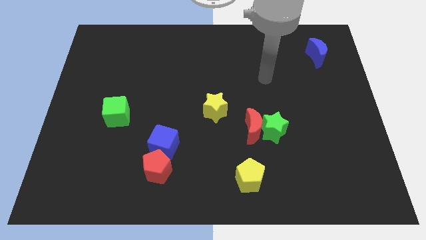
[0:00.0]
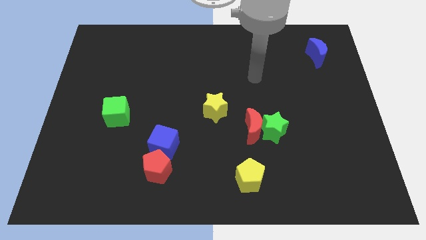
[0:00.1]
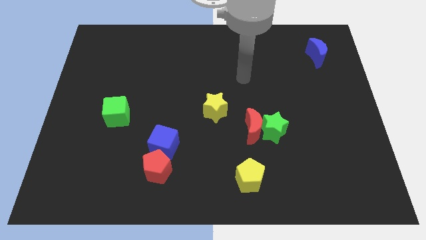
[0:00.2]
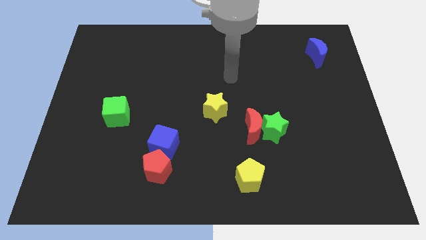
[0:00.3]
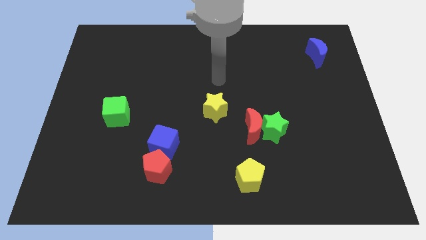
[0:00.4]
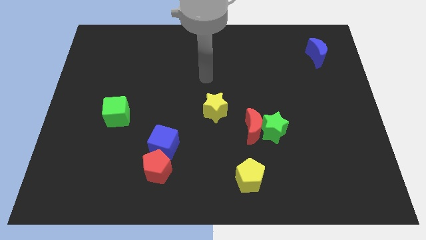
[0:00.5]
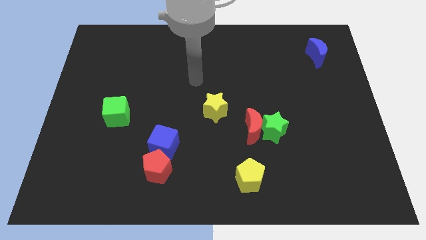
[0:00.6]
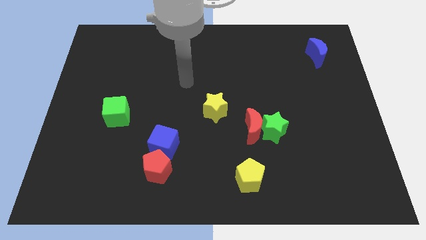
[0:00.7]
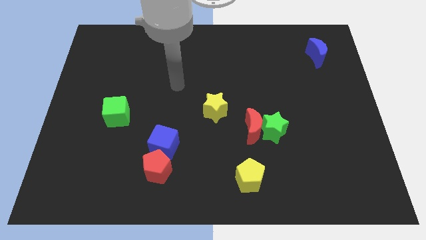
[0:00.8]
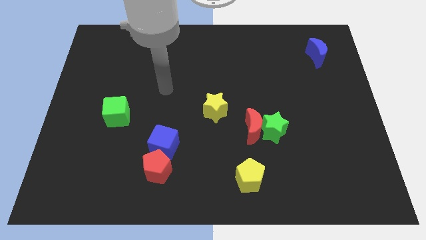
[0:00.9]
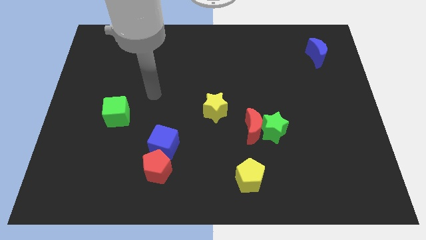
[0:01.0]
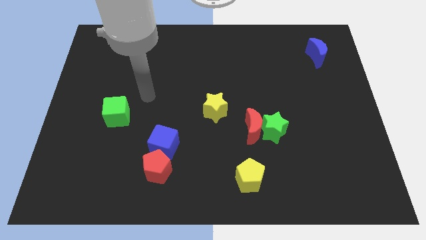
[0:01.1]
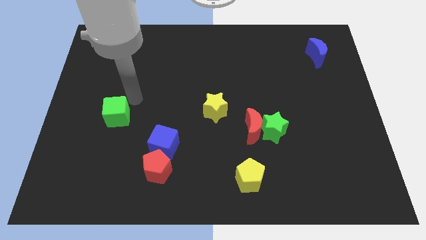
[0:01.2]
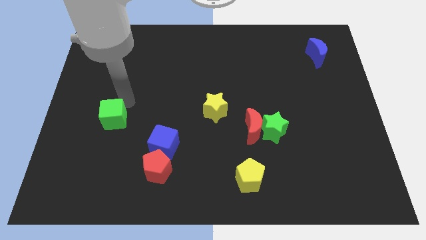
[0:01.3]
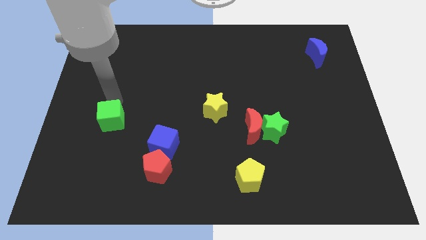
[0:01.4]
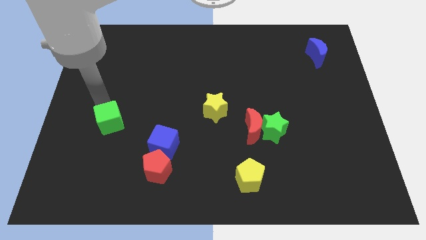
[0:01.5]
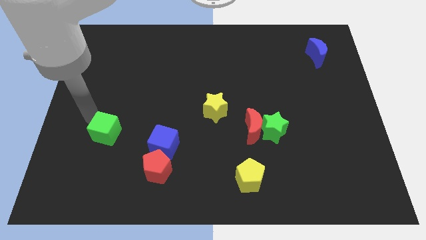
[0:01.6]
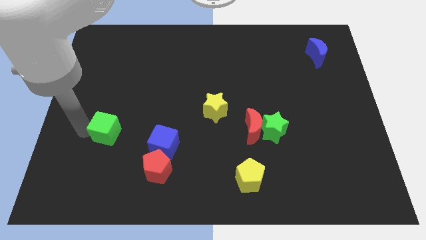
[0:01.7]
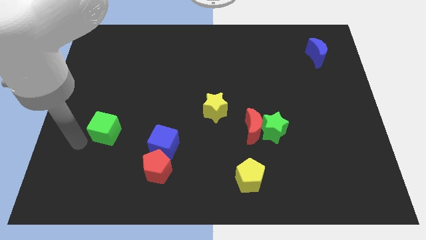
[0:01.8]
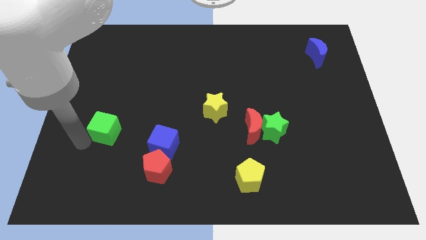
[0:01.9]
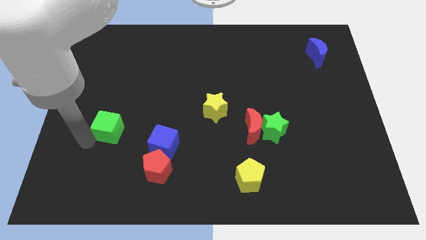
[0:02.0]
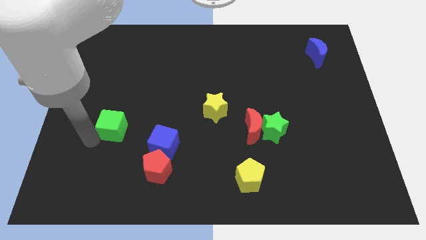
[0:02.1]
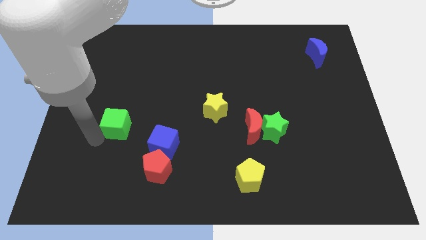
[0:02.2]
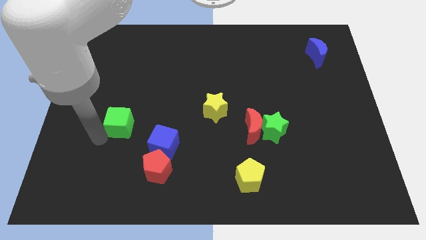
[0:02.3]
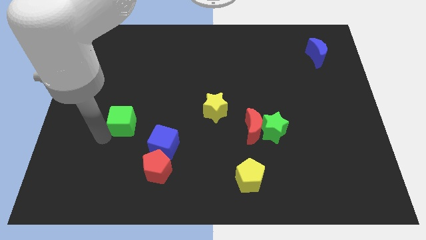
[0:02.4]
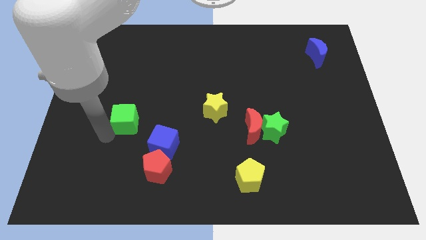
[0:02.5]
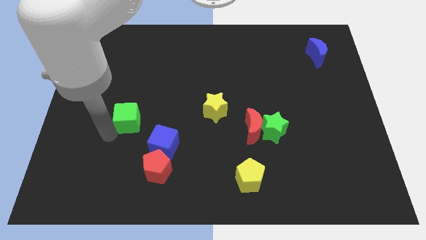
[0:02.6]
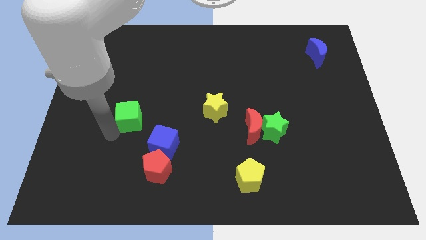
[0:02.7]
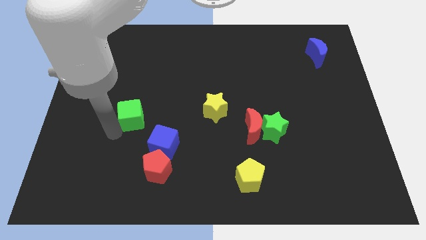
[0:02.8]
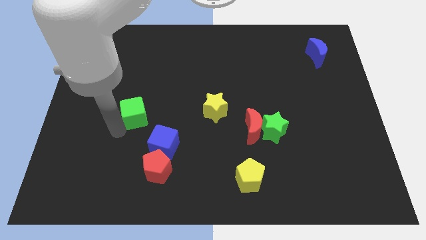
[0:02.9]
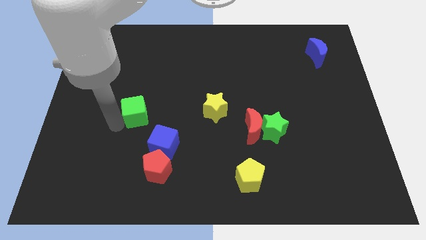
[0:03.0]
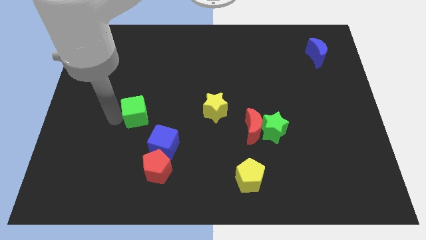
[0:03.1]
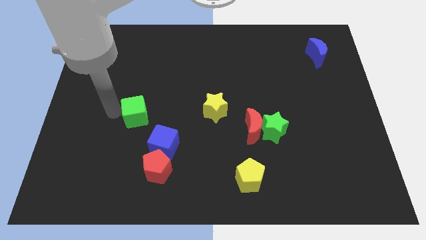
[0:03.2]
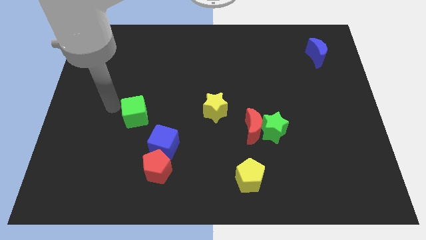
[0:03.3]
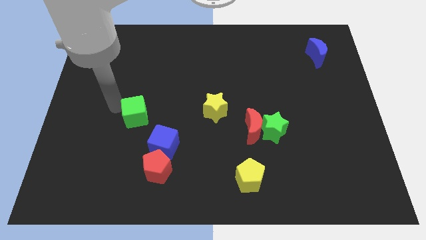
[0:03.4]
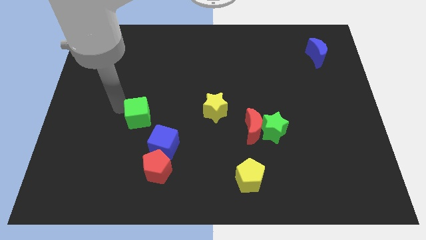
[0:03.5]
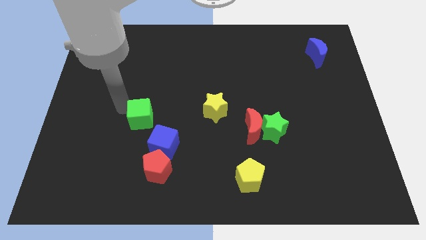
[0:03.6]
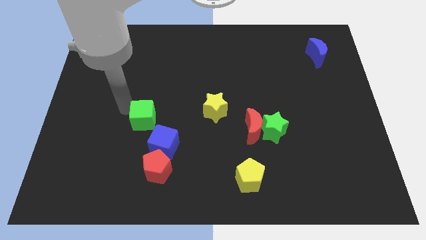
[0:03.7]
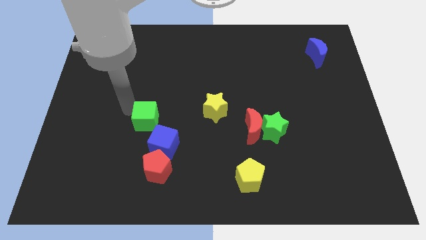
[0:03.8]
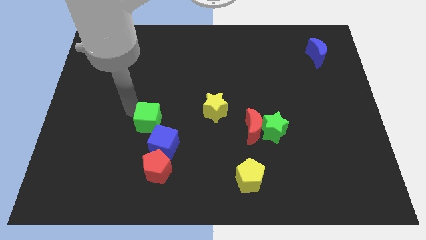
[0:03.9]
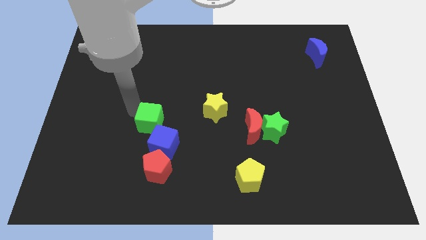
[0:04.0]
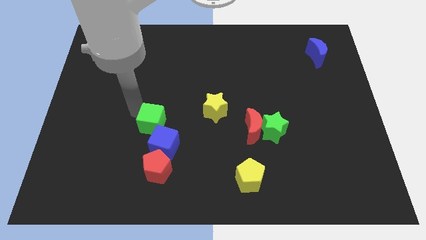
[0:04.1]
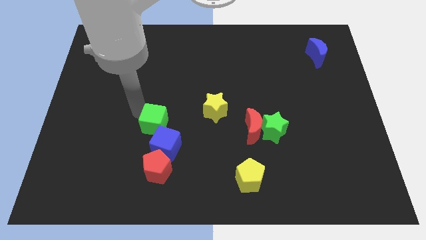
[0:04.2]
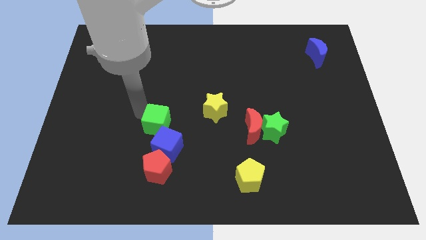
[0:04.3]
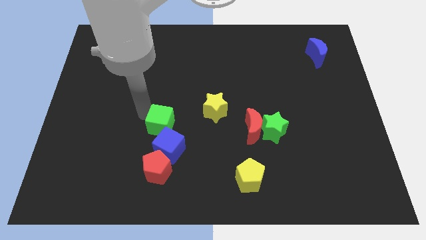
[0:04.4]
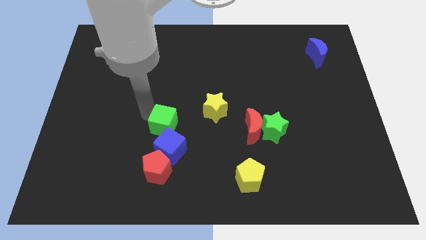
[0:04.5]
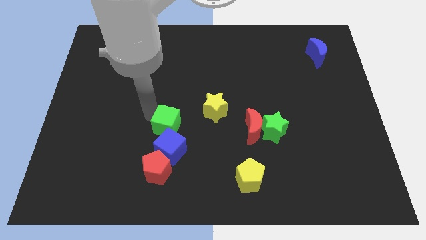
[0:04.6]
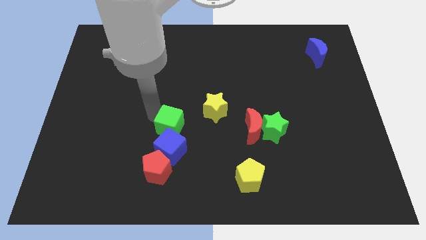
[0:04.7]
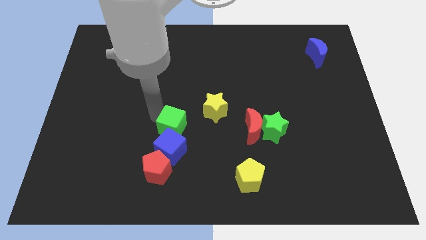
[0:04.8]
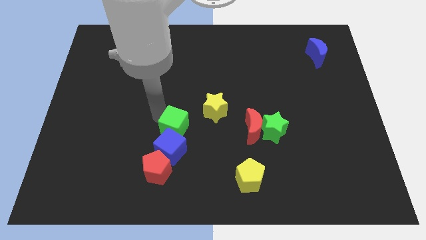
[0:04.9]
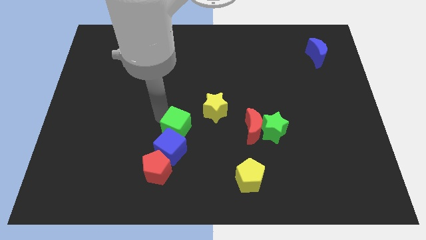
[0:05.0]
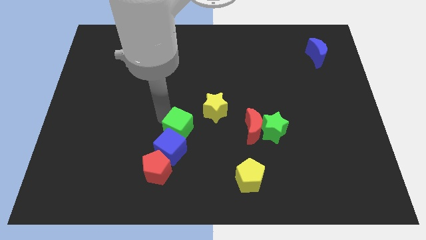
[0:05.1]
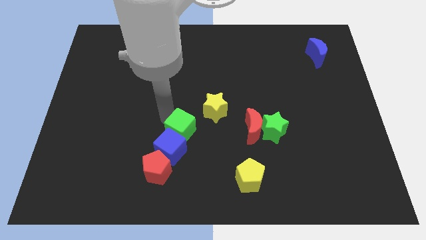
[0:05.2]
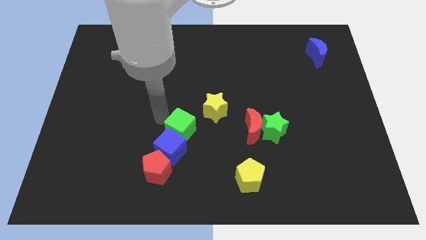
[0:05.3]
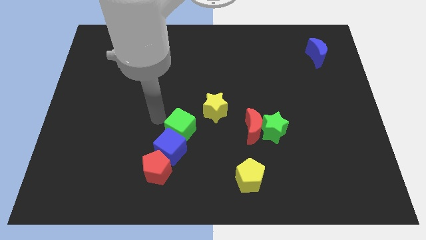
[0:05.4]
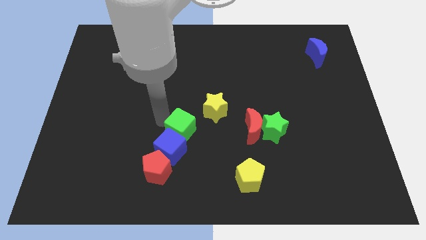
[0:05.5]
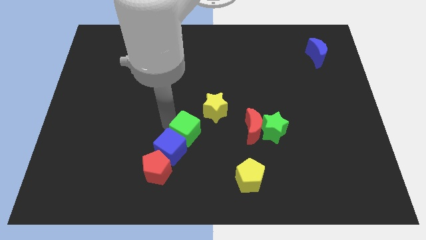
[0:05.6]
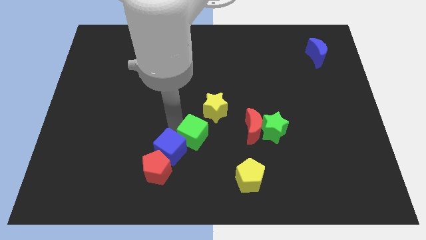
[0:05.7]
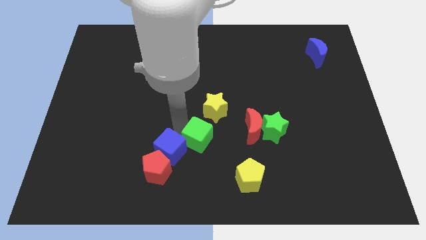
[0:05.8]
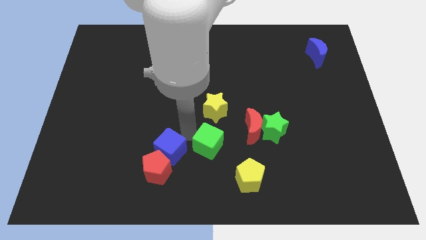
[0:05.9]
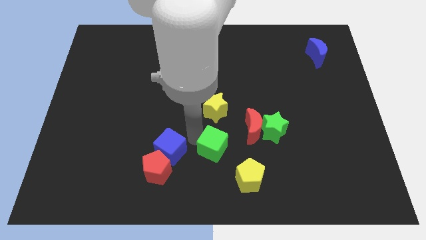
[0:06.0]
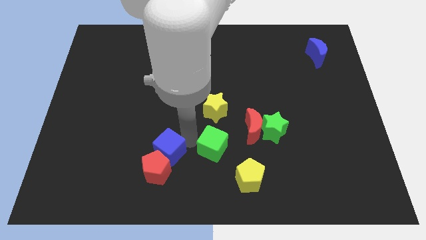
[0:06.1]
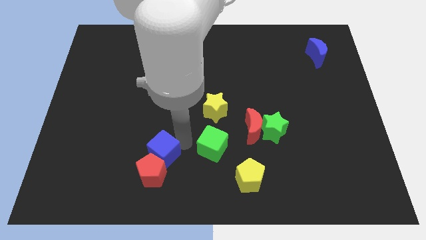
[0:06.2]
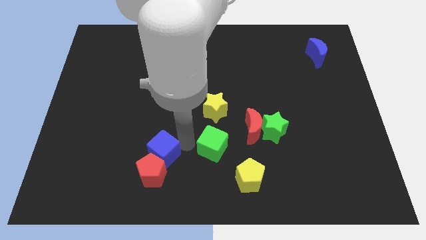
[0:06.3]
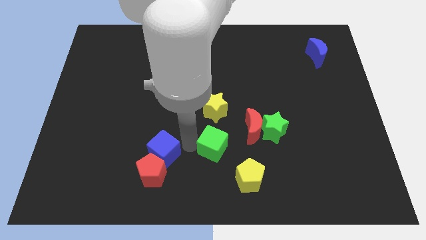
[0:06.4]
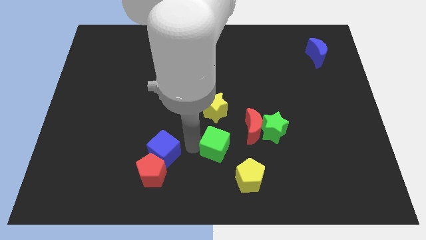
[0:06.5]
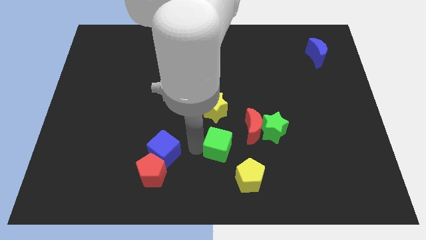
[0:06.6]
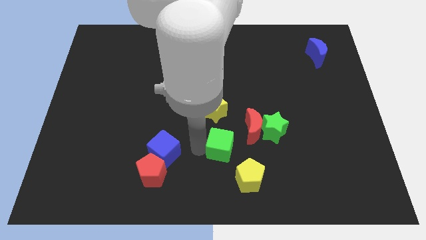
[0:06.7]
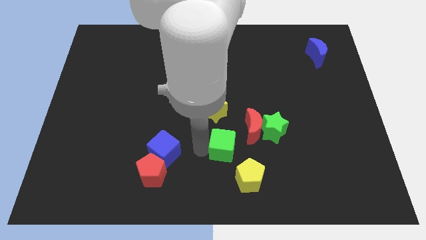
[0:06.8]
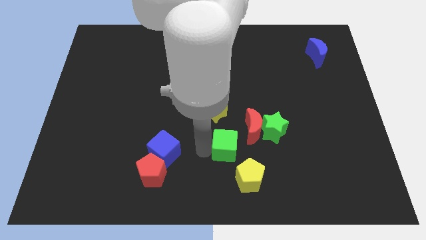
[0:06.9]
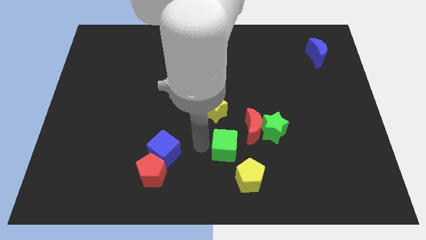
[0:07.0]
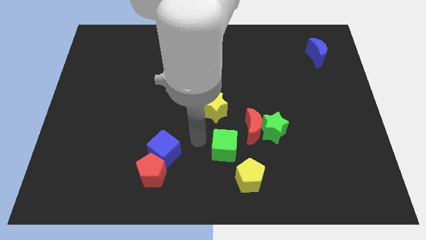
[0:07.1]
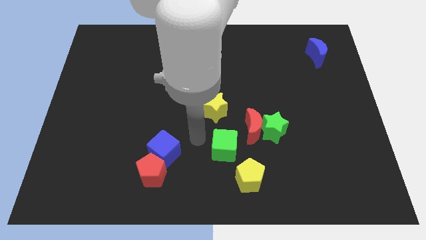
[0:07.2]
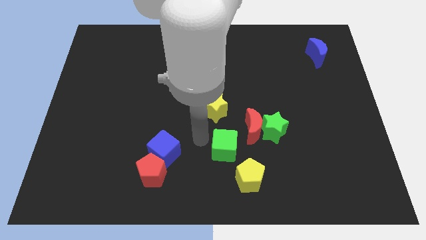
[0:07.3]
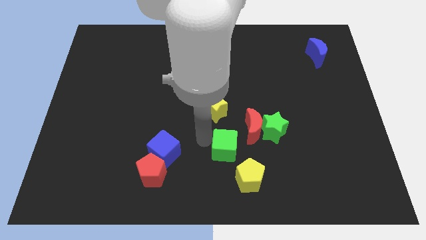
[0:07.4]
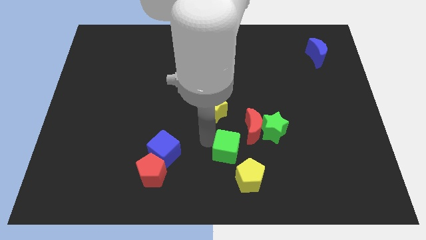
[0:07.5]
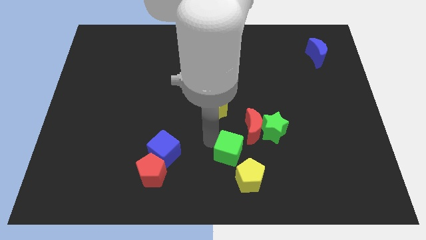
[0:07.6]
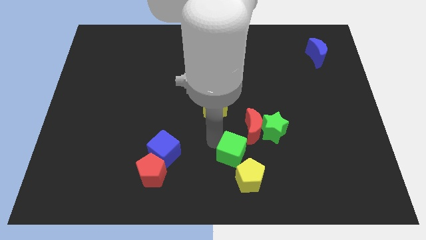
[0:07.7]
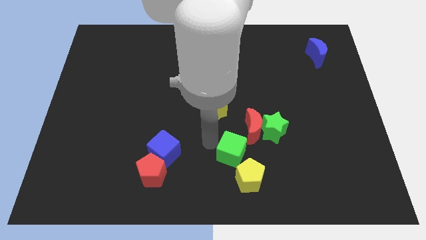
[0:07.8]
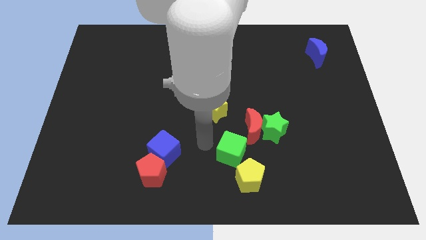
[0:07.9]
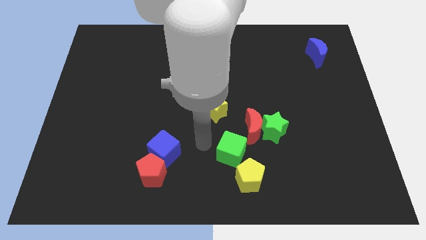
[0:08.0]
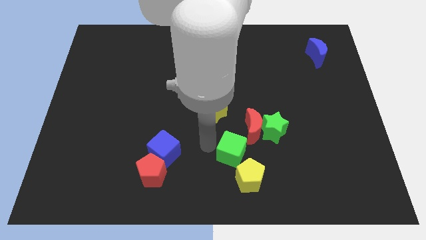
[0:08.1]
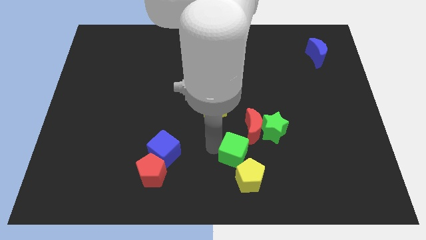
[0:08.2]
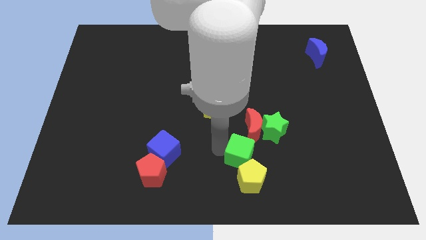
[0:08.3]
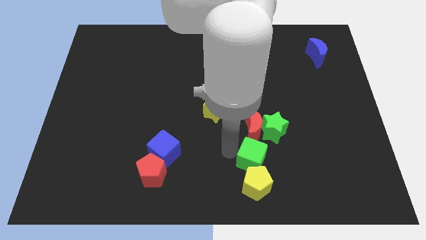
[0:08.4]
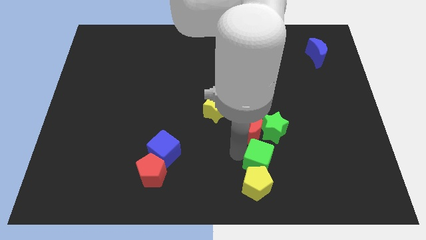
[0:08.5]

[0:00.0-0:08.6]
push the green cube below the green star
